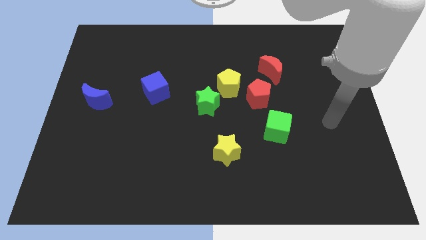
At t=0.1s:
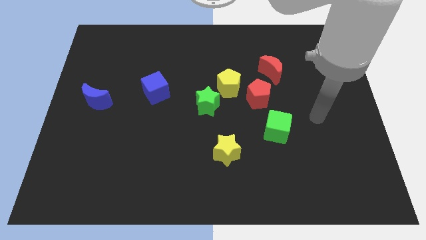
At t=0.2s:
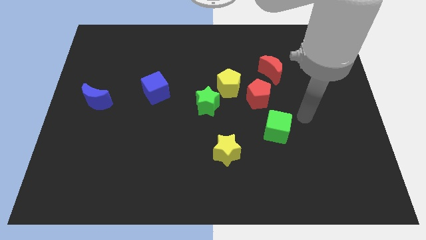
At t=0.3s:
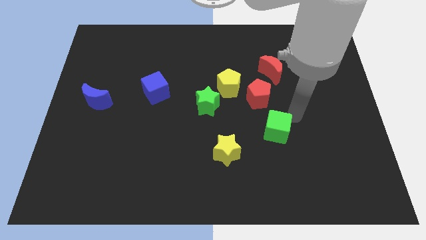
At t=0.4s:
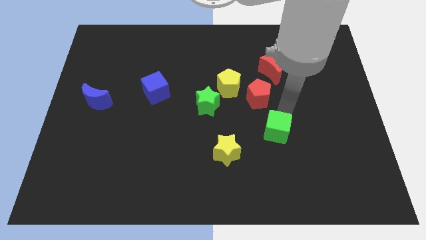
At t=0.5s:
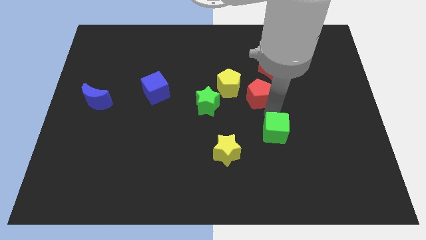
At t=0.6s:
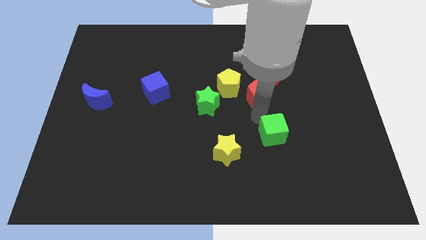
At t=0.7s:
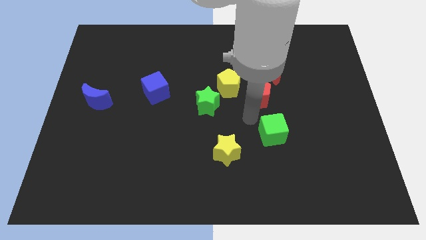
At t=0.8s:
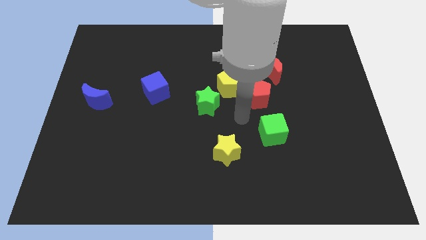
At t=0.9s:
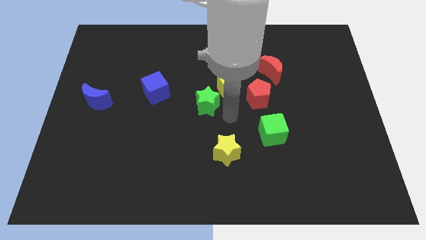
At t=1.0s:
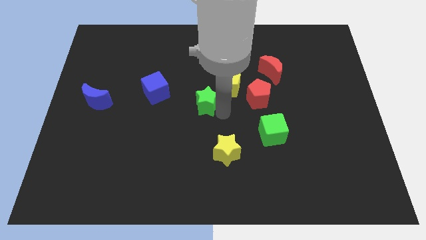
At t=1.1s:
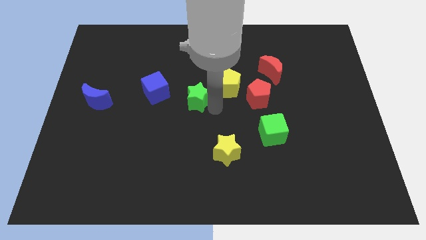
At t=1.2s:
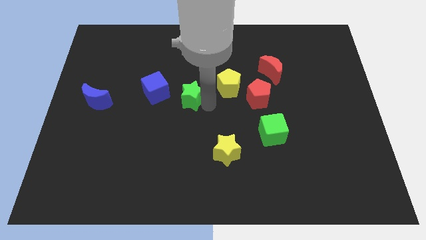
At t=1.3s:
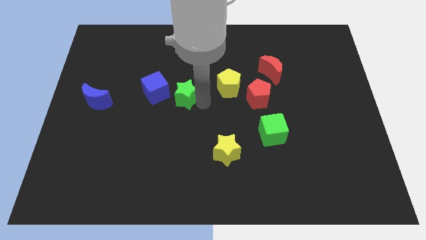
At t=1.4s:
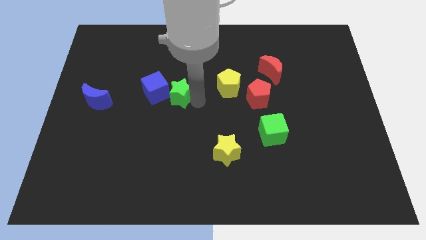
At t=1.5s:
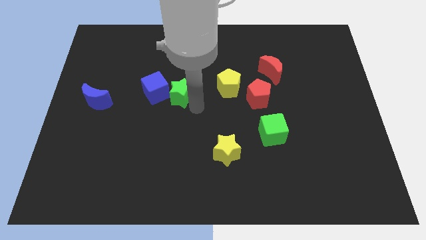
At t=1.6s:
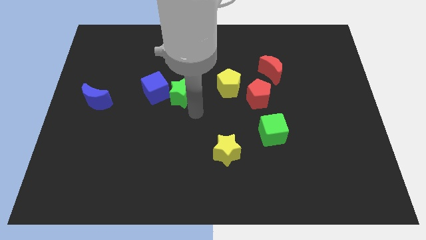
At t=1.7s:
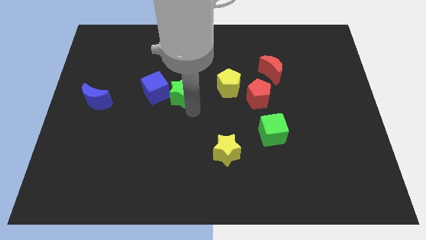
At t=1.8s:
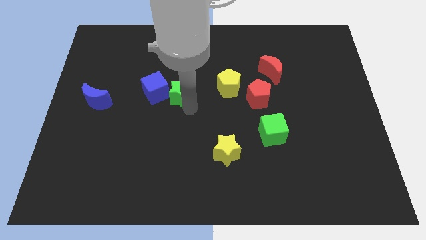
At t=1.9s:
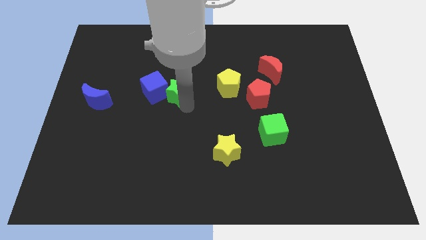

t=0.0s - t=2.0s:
move the green star diagonally upwards and to the left slightly

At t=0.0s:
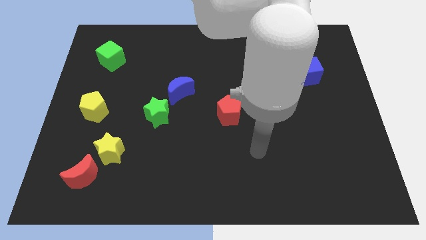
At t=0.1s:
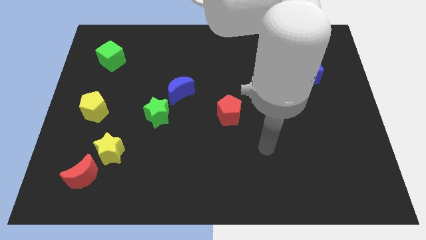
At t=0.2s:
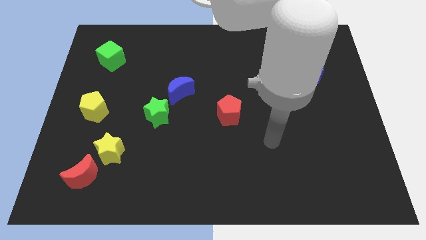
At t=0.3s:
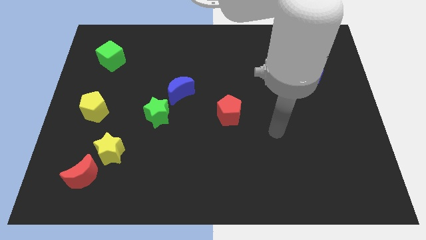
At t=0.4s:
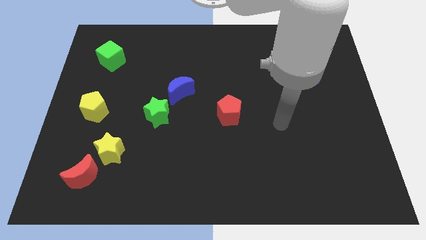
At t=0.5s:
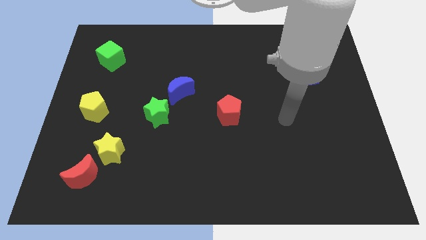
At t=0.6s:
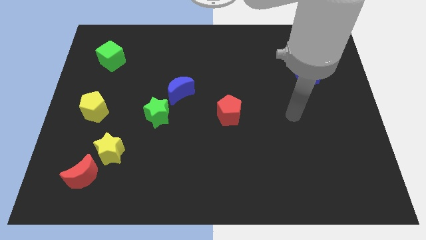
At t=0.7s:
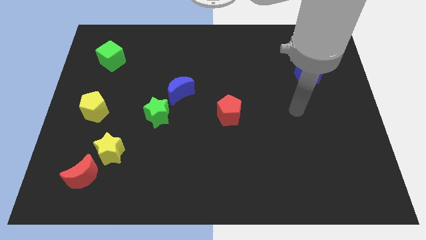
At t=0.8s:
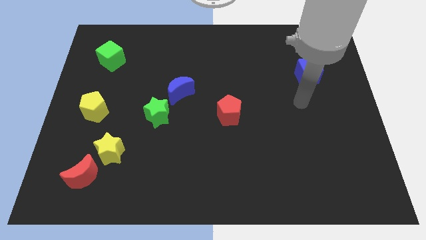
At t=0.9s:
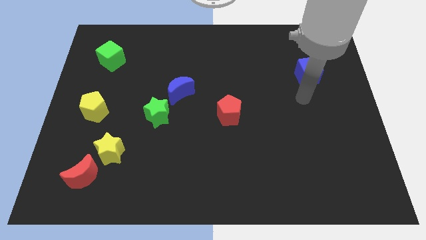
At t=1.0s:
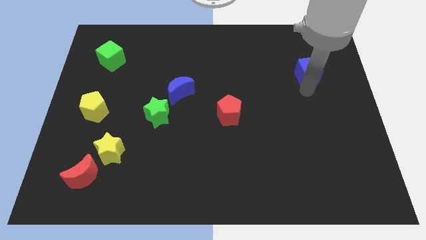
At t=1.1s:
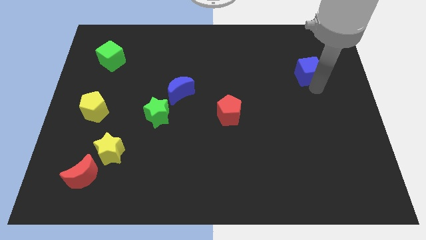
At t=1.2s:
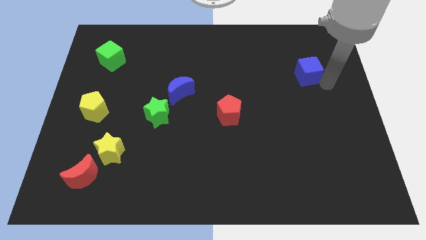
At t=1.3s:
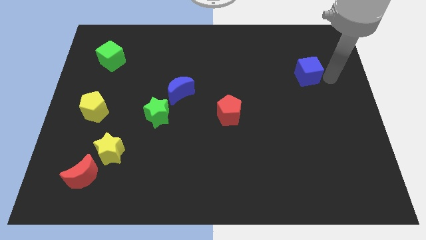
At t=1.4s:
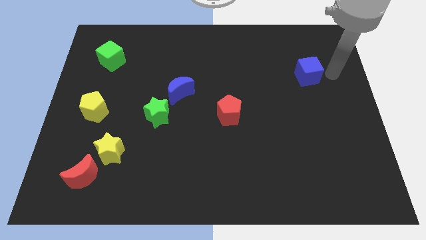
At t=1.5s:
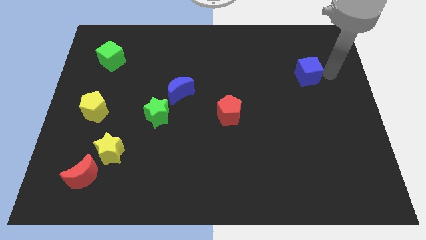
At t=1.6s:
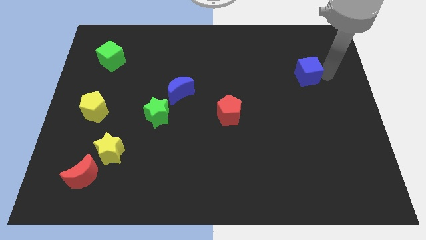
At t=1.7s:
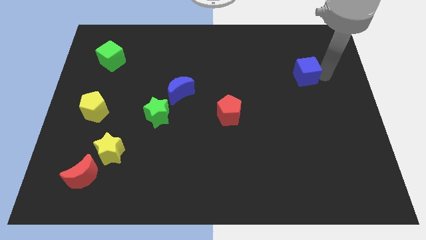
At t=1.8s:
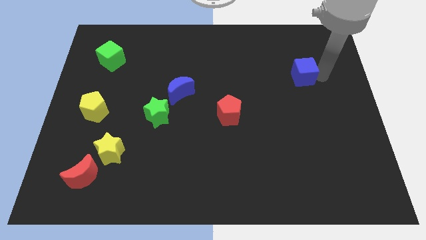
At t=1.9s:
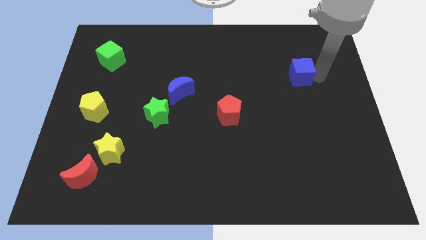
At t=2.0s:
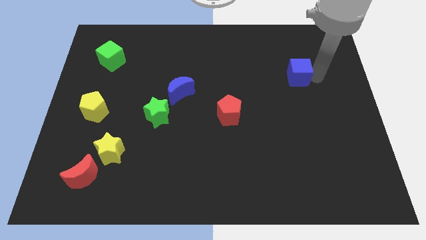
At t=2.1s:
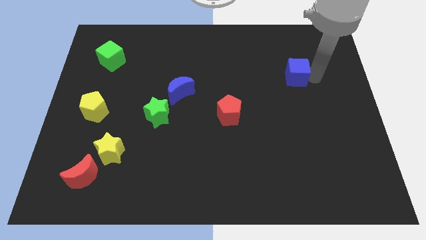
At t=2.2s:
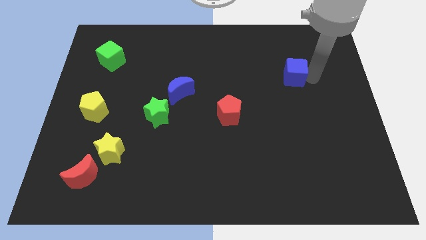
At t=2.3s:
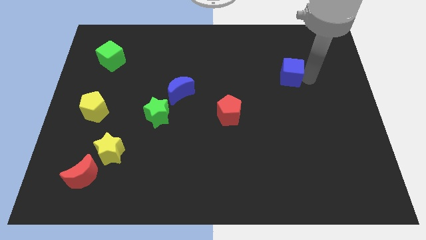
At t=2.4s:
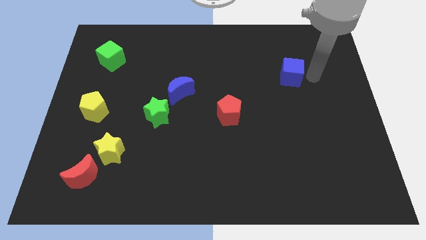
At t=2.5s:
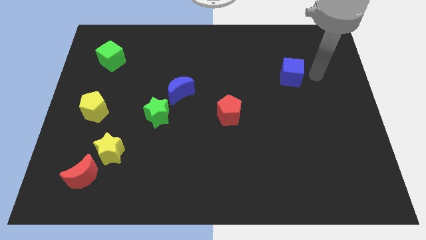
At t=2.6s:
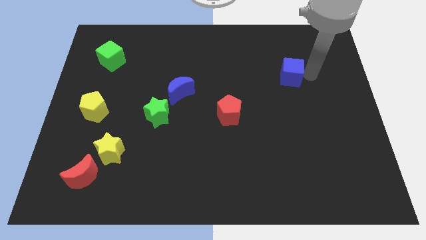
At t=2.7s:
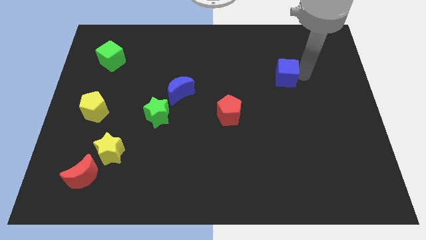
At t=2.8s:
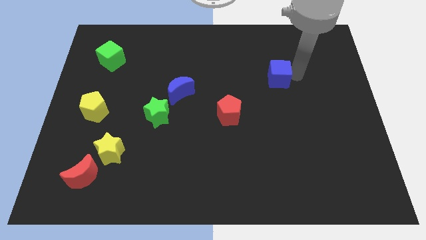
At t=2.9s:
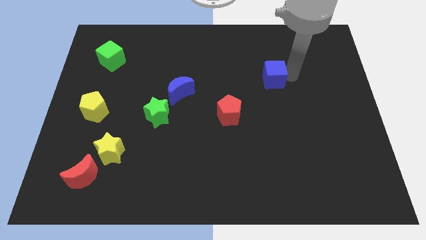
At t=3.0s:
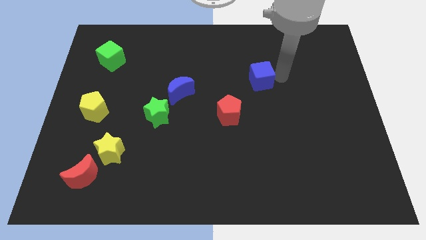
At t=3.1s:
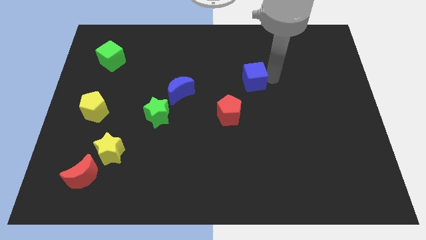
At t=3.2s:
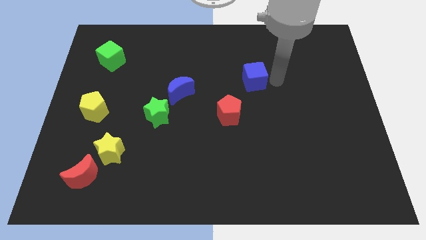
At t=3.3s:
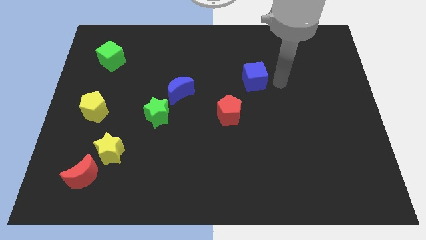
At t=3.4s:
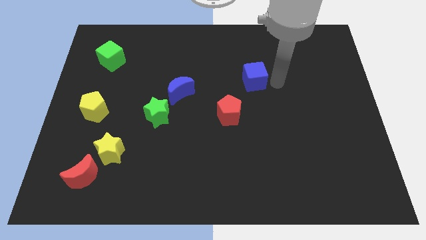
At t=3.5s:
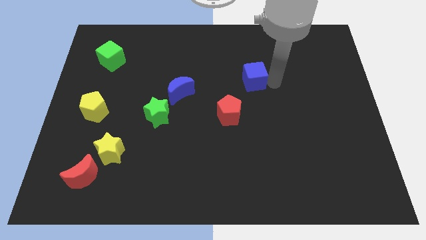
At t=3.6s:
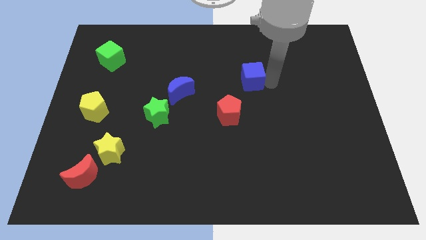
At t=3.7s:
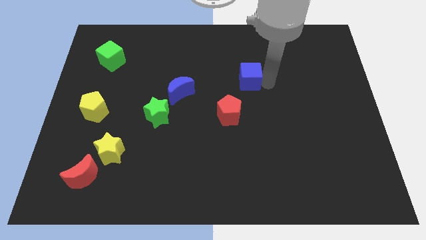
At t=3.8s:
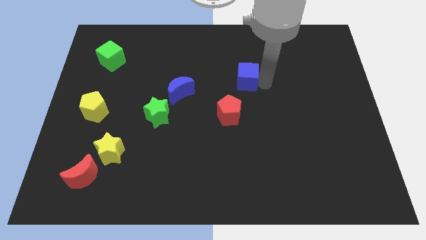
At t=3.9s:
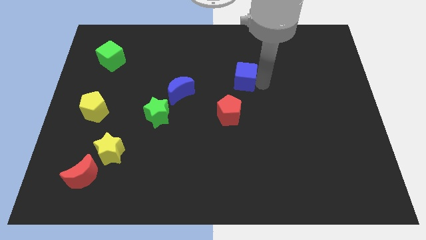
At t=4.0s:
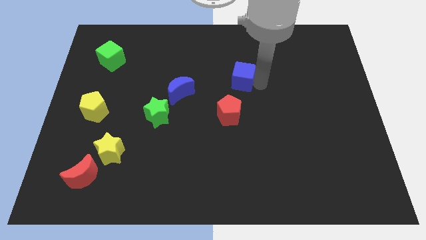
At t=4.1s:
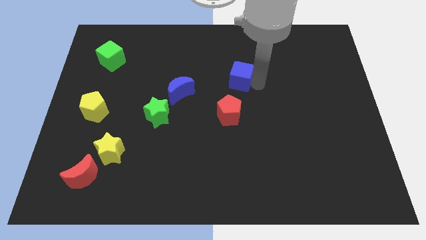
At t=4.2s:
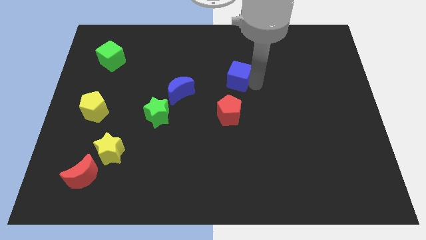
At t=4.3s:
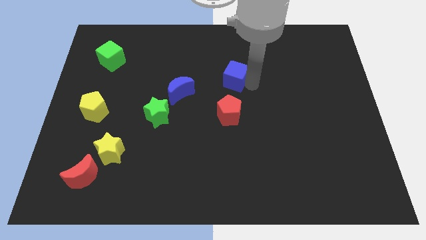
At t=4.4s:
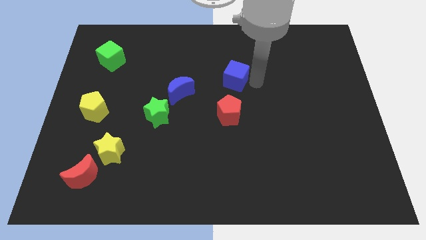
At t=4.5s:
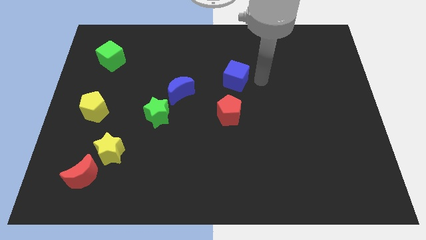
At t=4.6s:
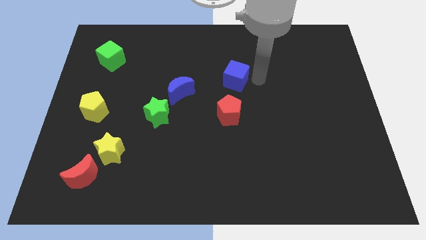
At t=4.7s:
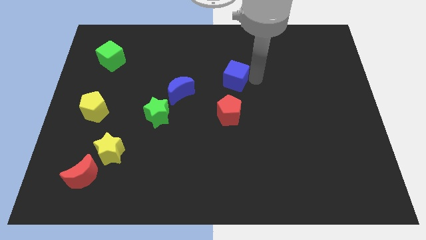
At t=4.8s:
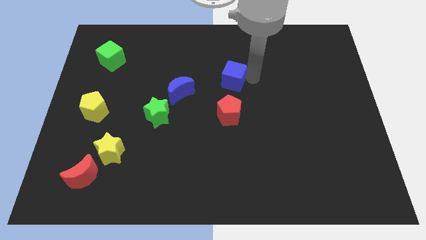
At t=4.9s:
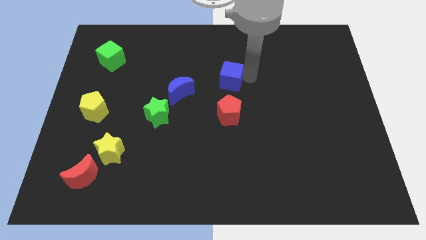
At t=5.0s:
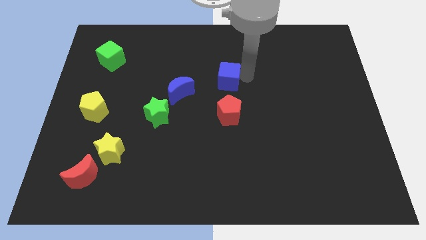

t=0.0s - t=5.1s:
slide the blue cube left

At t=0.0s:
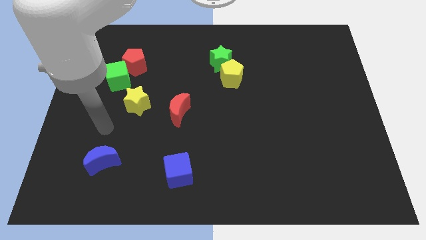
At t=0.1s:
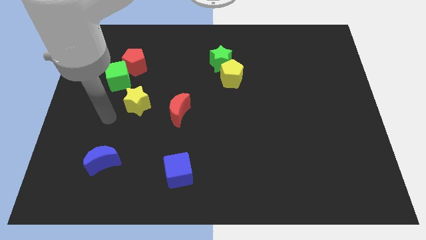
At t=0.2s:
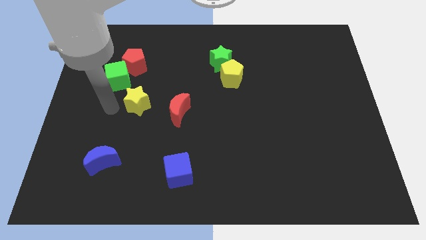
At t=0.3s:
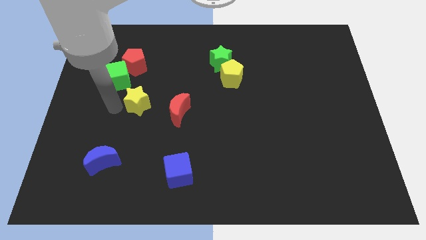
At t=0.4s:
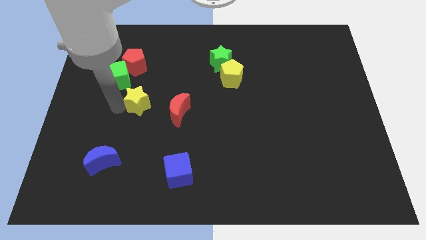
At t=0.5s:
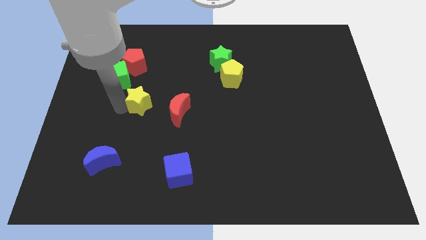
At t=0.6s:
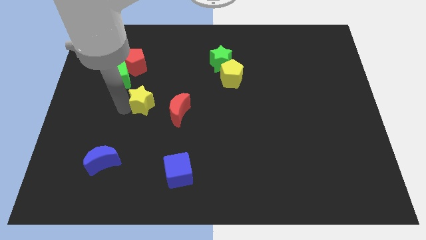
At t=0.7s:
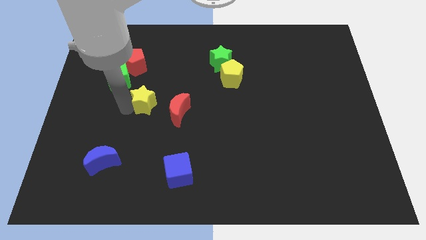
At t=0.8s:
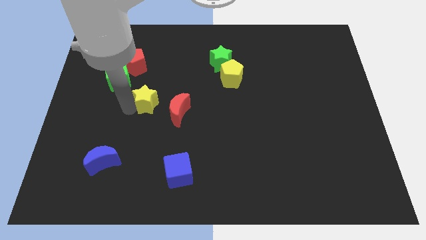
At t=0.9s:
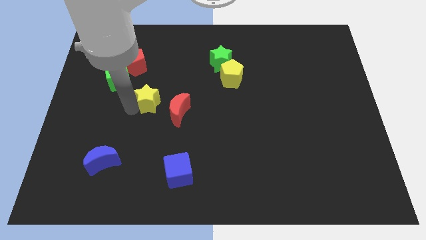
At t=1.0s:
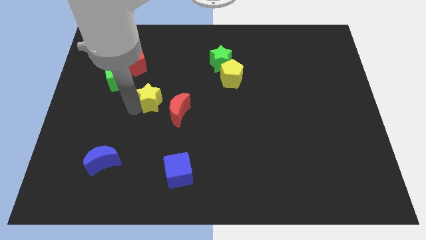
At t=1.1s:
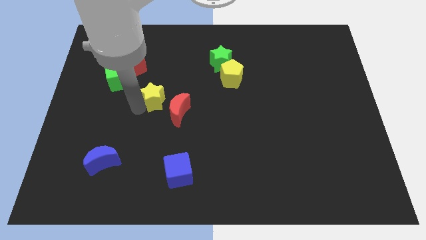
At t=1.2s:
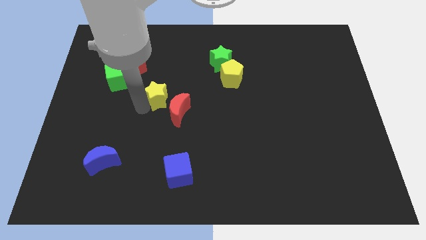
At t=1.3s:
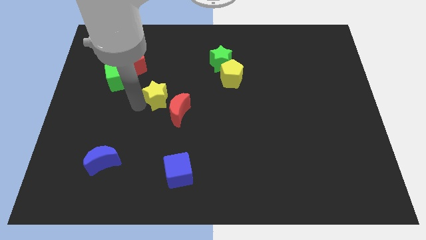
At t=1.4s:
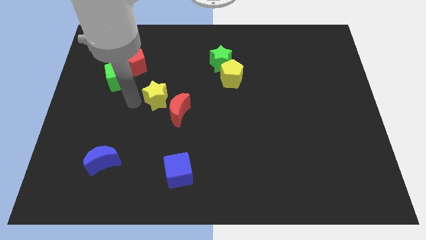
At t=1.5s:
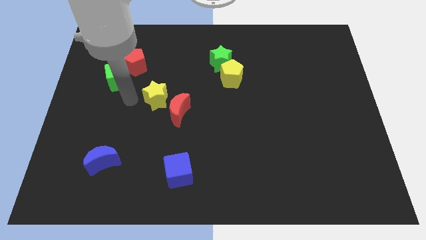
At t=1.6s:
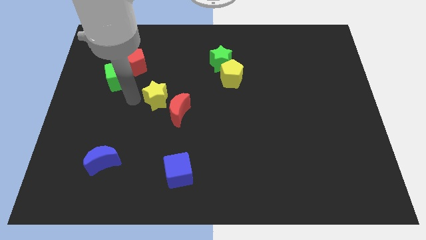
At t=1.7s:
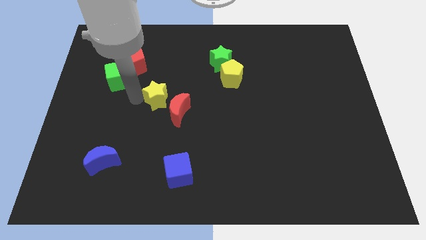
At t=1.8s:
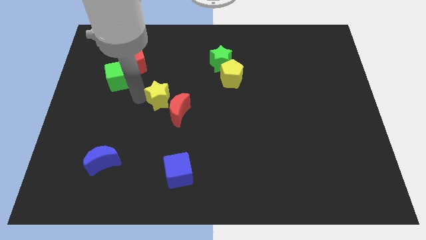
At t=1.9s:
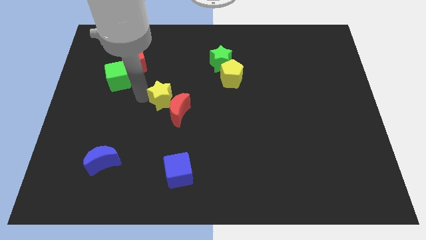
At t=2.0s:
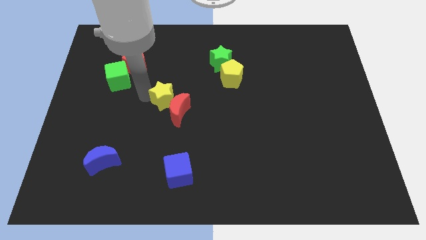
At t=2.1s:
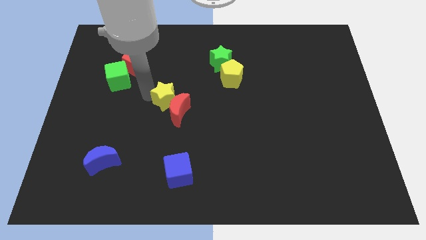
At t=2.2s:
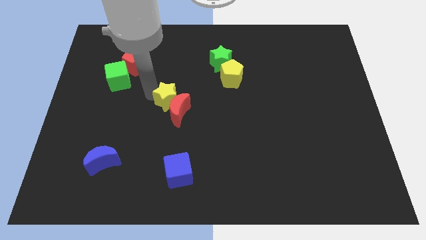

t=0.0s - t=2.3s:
slightly slide the yellow star to the right
